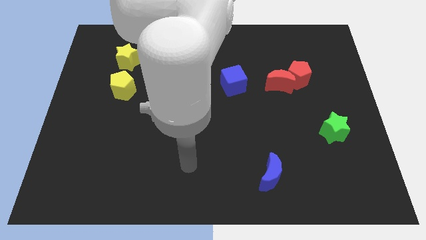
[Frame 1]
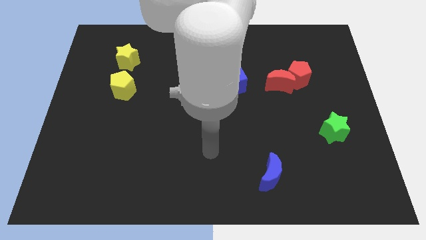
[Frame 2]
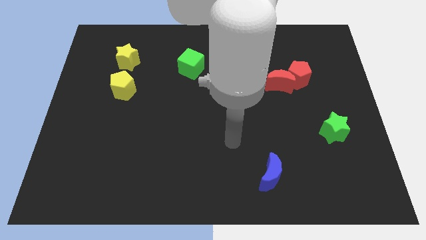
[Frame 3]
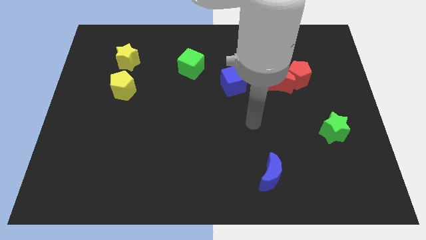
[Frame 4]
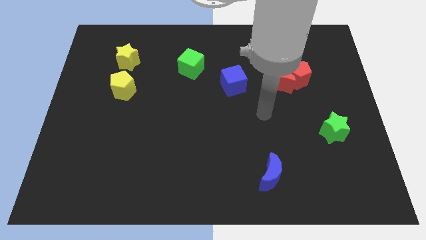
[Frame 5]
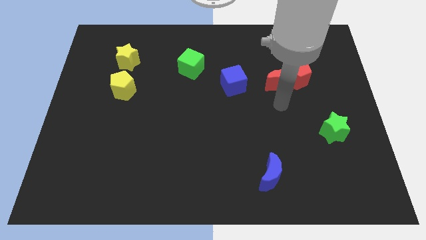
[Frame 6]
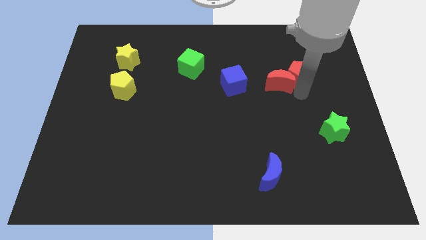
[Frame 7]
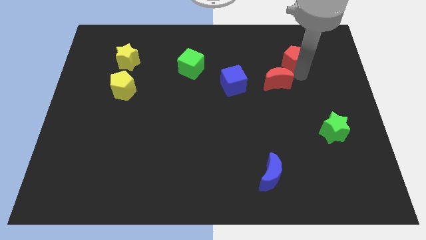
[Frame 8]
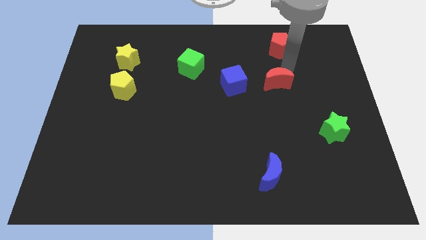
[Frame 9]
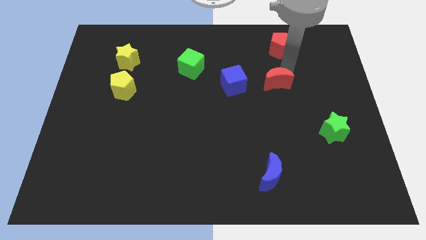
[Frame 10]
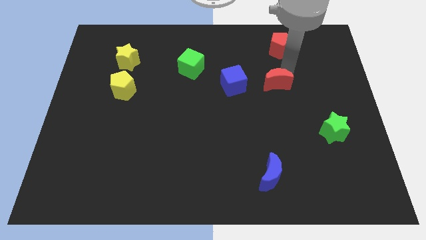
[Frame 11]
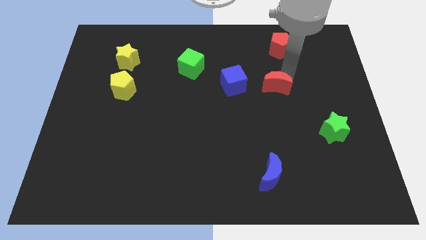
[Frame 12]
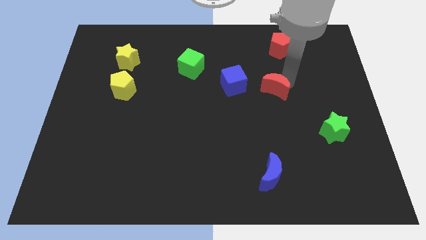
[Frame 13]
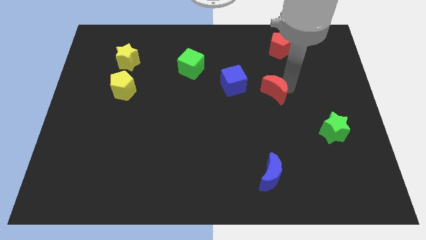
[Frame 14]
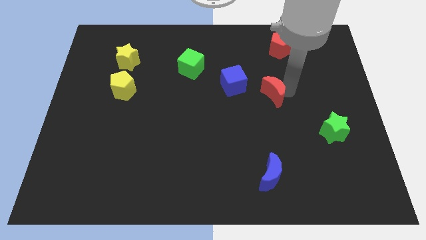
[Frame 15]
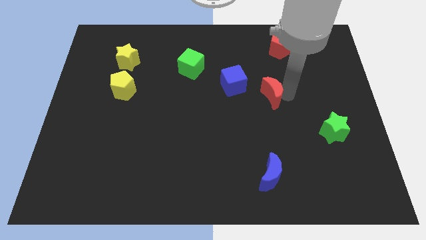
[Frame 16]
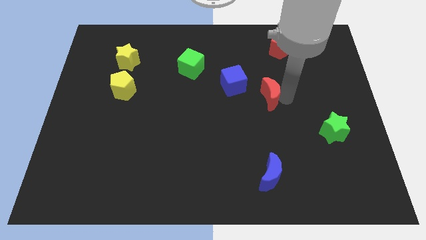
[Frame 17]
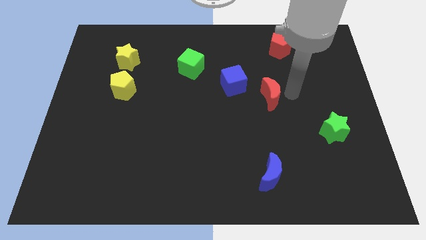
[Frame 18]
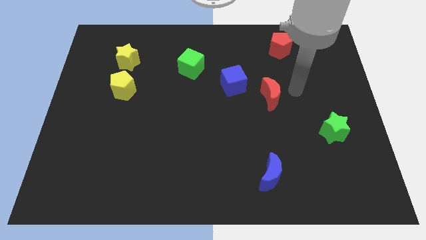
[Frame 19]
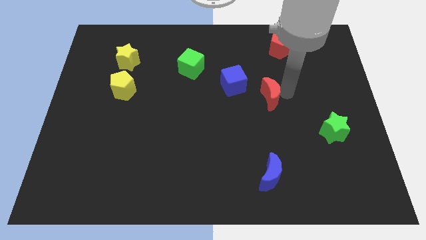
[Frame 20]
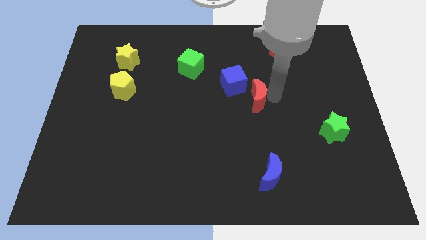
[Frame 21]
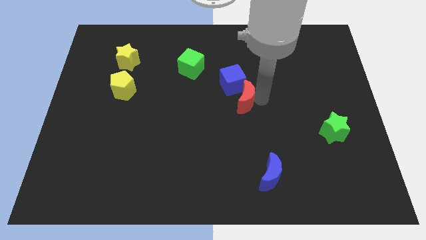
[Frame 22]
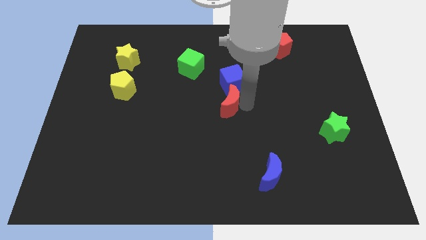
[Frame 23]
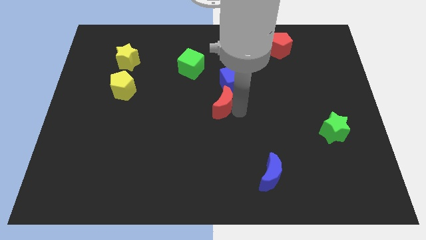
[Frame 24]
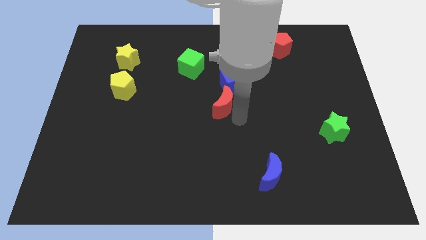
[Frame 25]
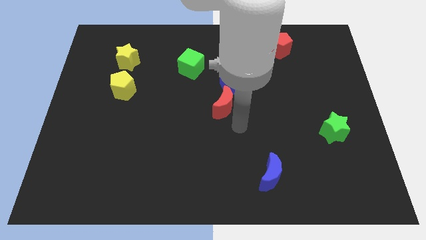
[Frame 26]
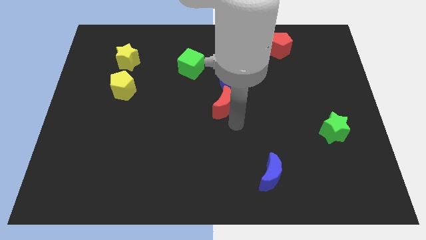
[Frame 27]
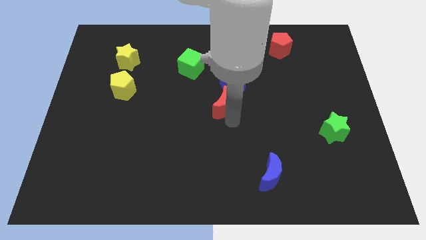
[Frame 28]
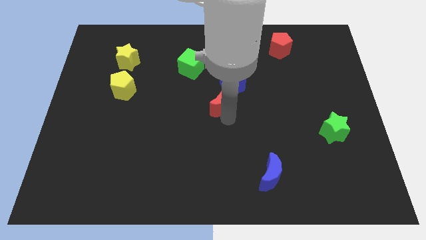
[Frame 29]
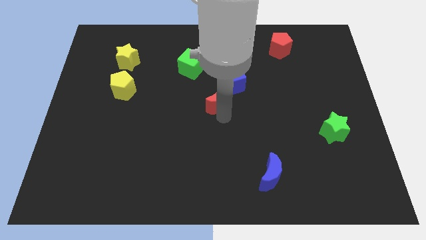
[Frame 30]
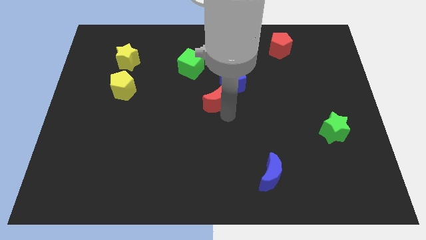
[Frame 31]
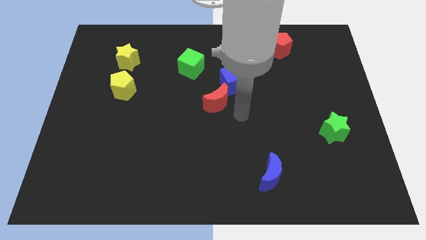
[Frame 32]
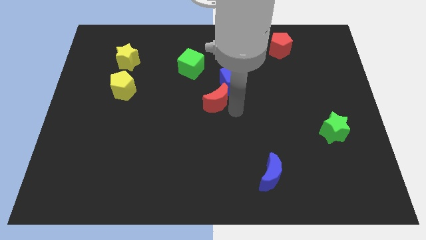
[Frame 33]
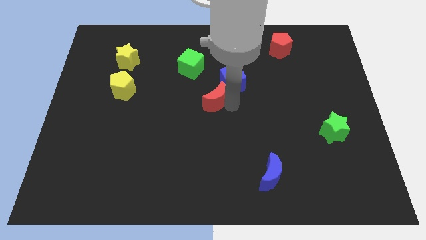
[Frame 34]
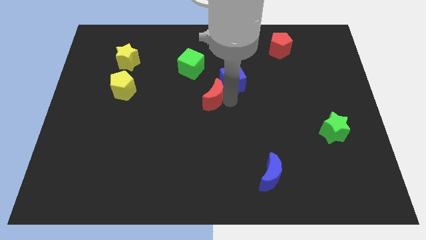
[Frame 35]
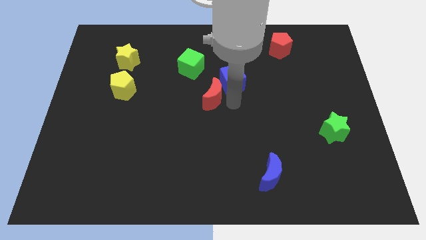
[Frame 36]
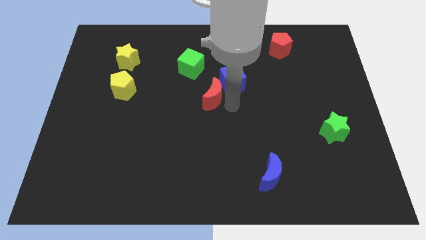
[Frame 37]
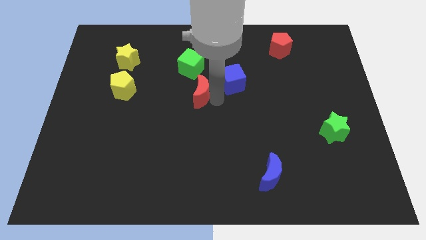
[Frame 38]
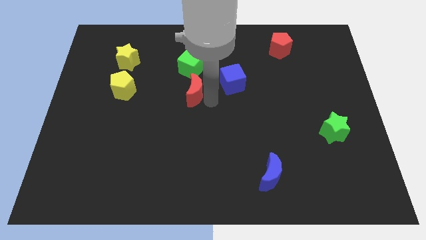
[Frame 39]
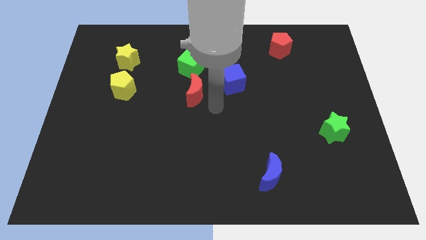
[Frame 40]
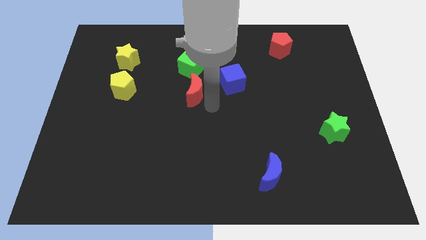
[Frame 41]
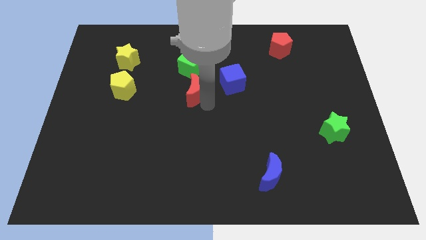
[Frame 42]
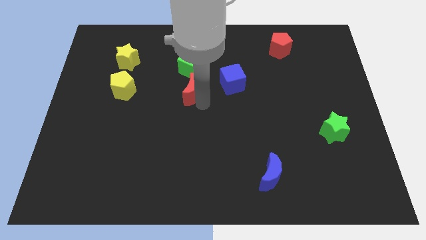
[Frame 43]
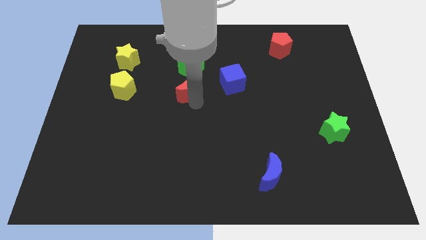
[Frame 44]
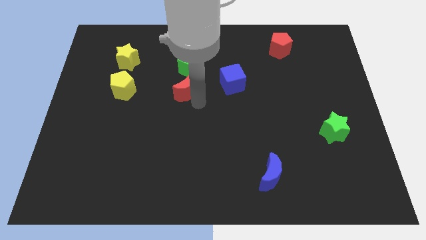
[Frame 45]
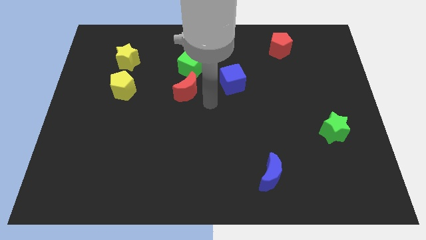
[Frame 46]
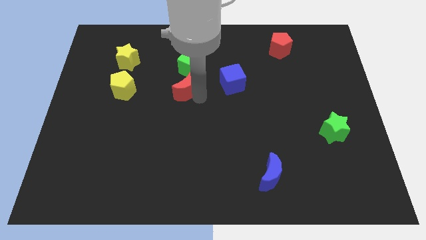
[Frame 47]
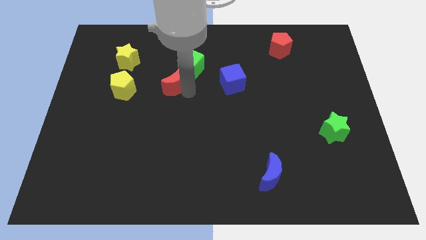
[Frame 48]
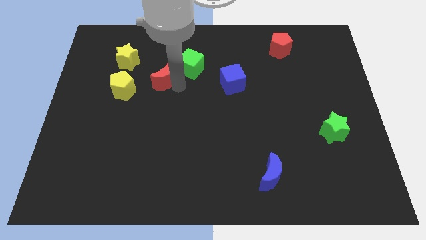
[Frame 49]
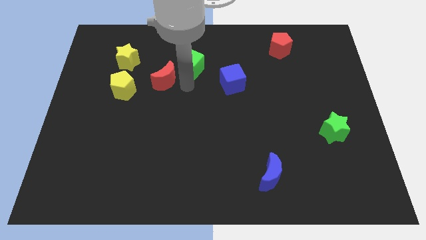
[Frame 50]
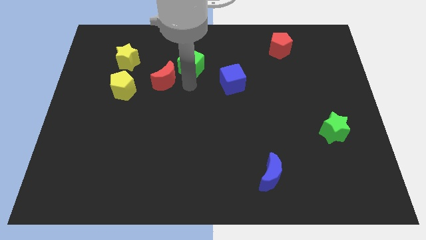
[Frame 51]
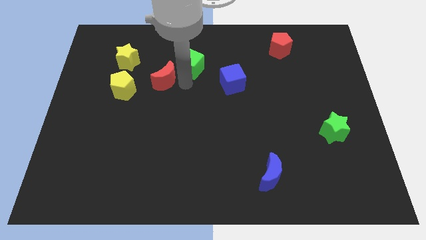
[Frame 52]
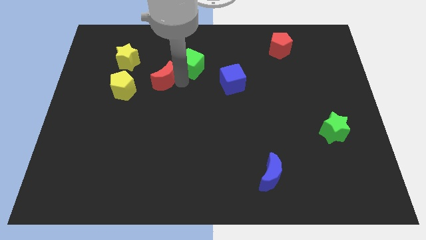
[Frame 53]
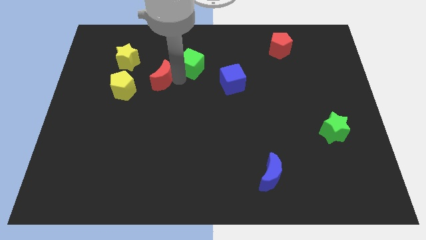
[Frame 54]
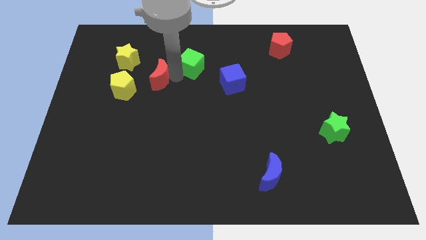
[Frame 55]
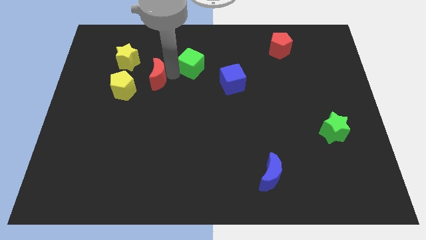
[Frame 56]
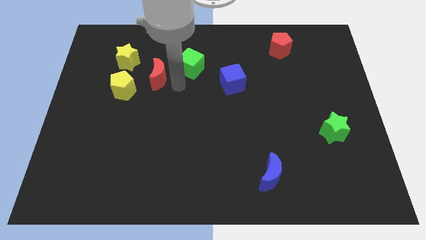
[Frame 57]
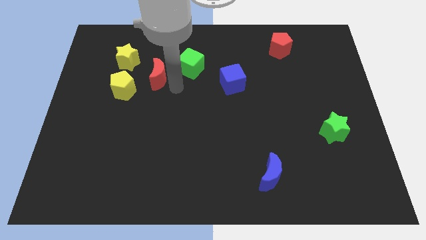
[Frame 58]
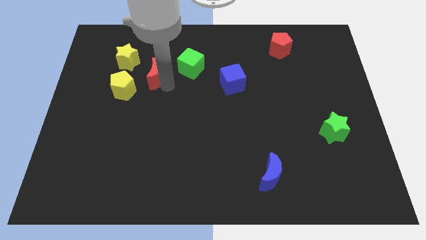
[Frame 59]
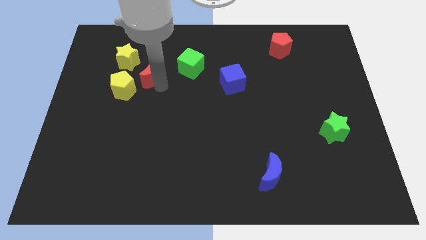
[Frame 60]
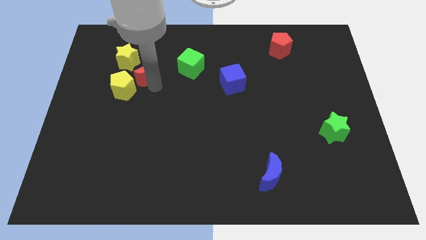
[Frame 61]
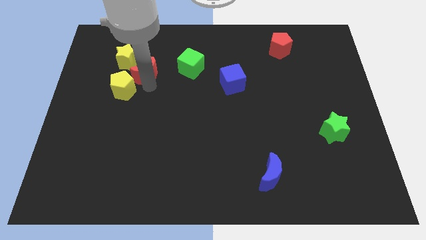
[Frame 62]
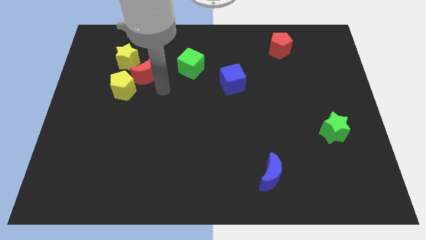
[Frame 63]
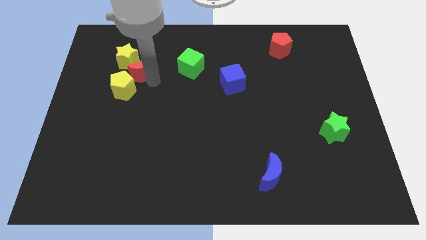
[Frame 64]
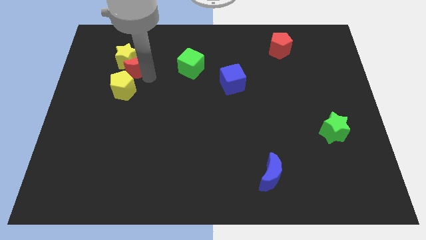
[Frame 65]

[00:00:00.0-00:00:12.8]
push the red moon close to the yellow star
